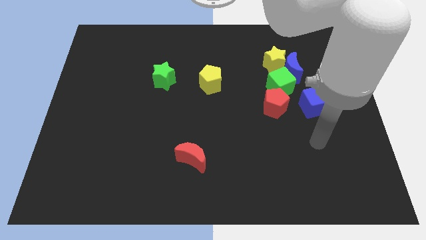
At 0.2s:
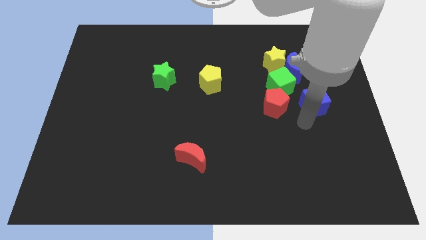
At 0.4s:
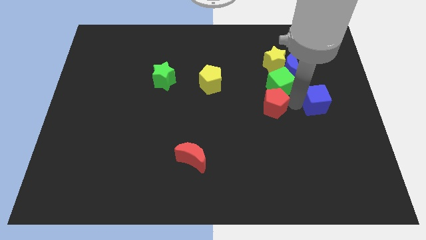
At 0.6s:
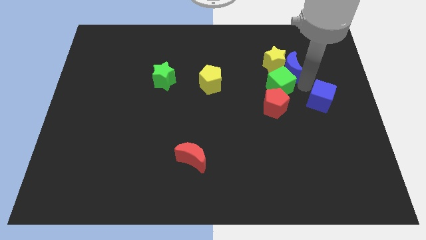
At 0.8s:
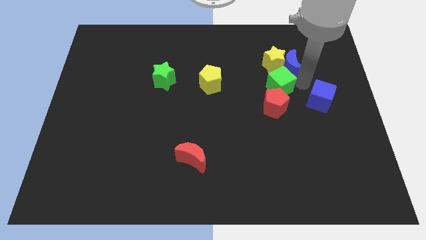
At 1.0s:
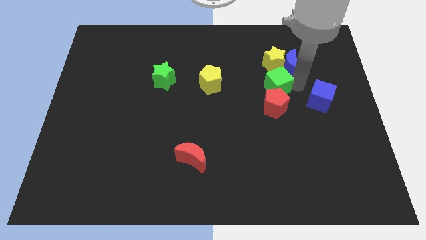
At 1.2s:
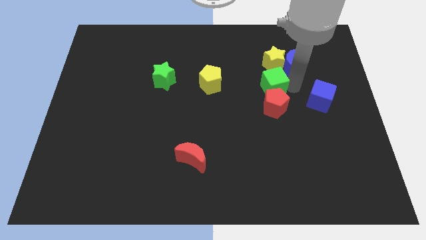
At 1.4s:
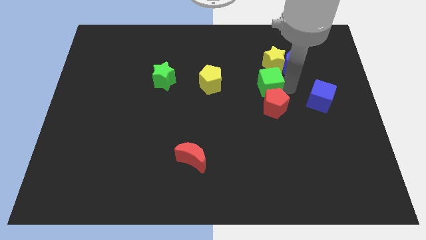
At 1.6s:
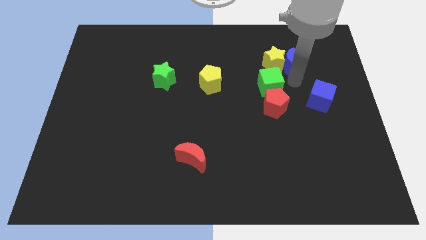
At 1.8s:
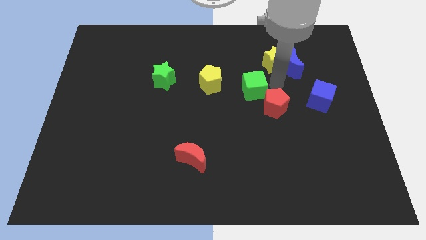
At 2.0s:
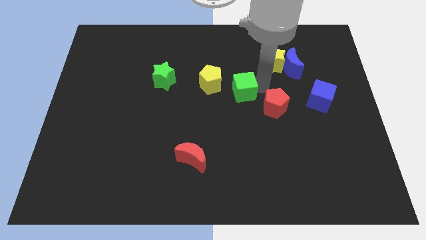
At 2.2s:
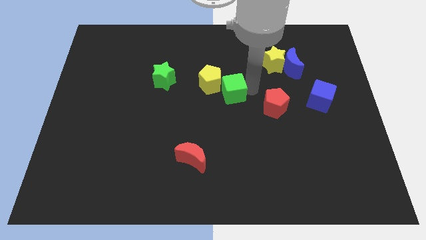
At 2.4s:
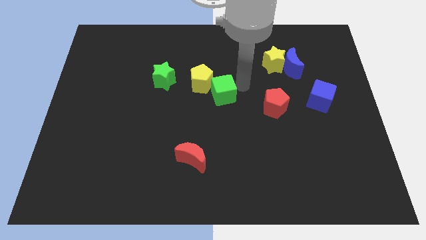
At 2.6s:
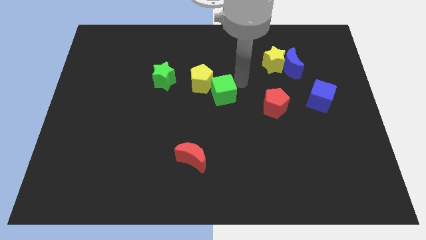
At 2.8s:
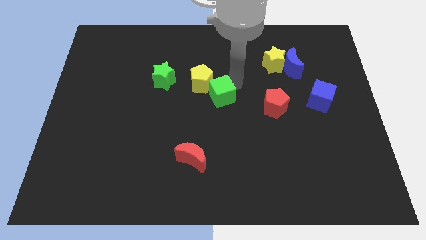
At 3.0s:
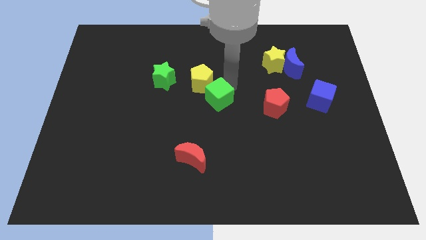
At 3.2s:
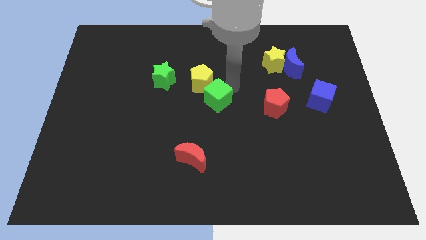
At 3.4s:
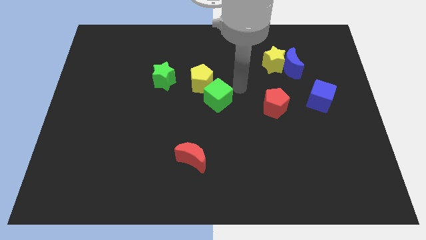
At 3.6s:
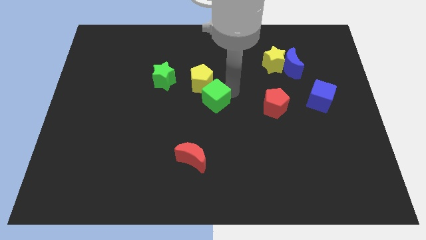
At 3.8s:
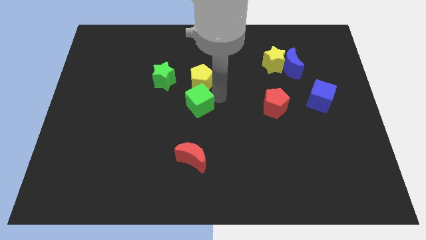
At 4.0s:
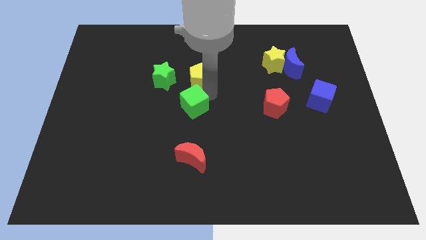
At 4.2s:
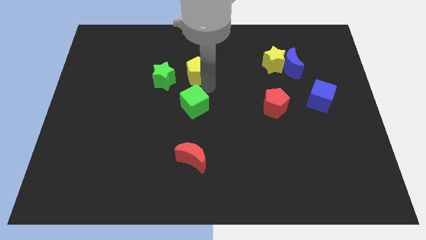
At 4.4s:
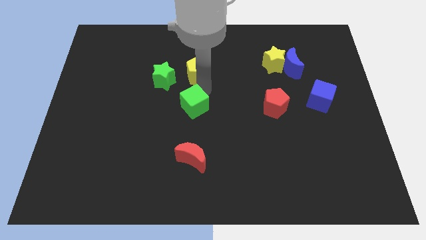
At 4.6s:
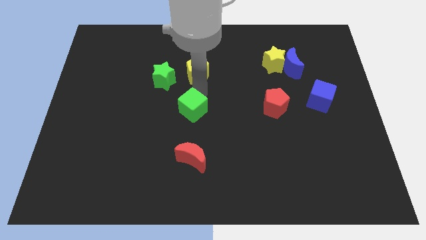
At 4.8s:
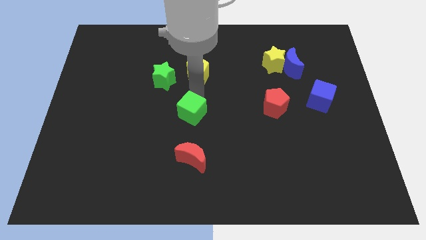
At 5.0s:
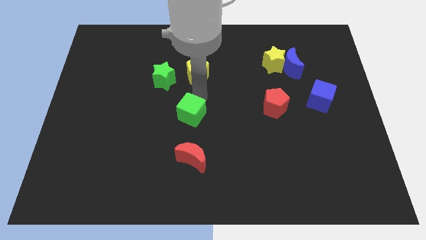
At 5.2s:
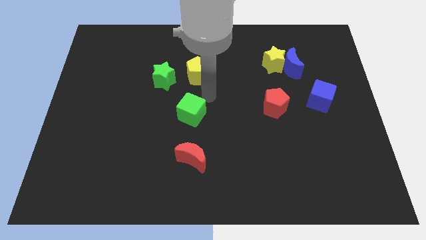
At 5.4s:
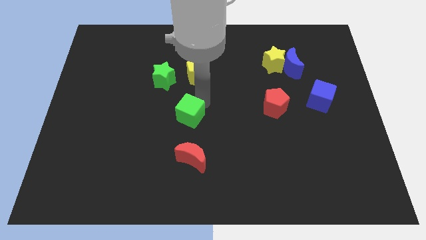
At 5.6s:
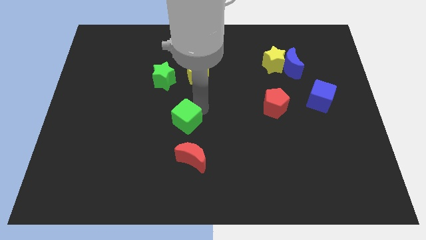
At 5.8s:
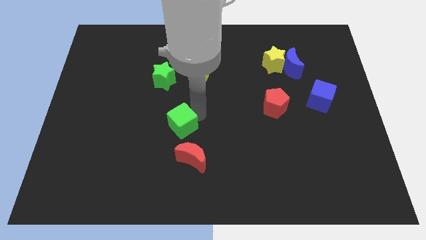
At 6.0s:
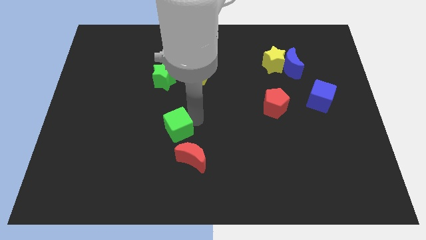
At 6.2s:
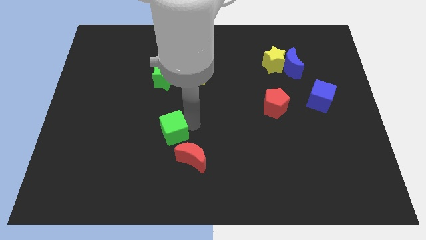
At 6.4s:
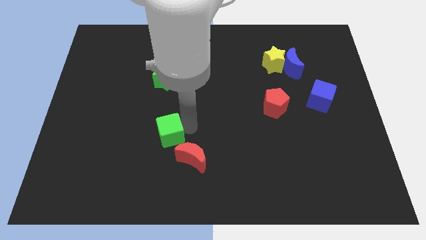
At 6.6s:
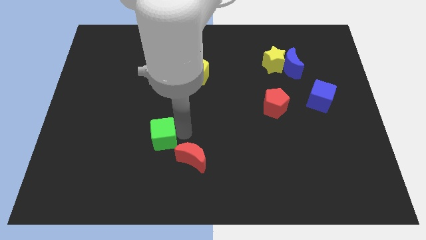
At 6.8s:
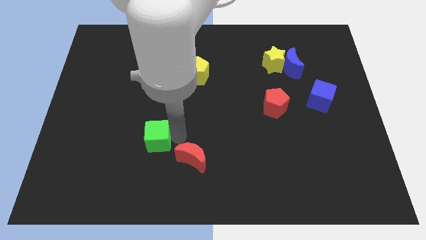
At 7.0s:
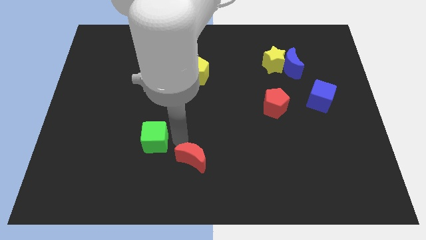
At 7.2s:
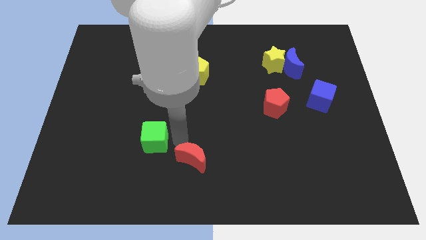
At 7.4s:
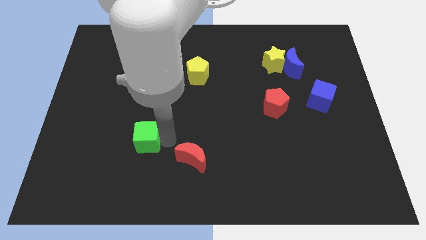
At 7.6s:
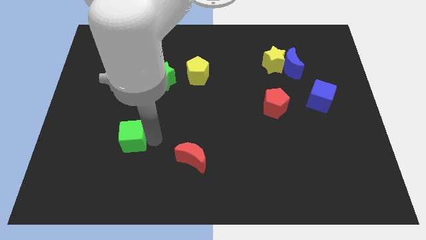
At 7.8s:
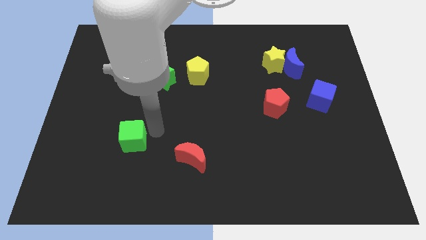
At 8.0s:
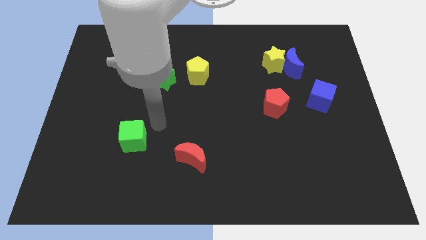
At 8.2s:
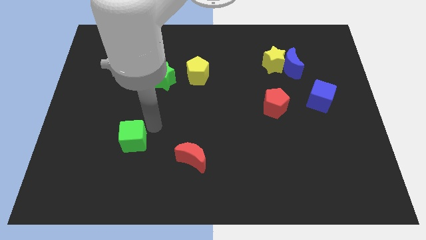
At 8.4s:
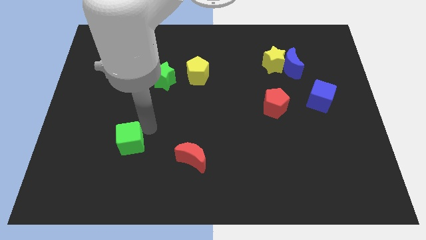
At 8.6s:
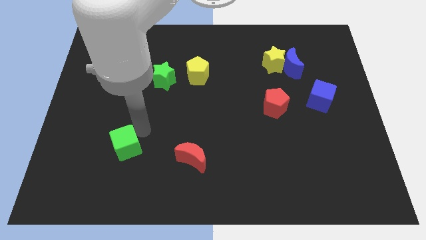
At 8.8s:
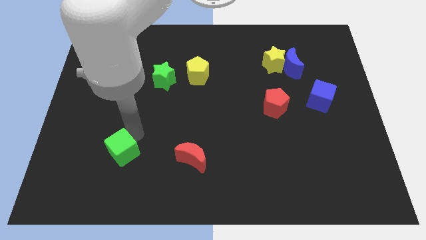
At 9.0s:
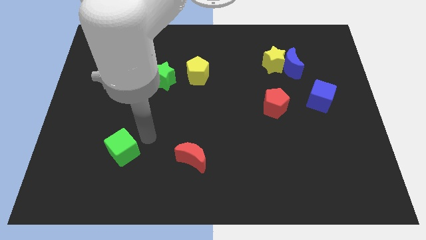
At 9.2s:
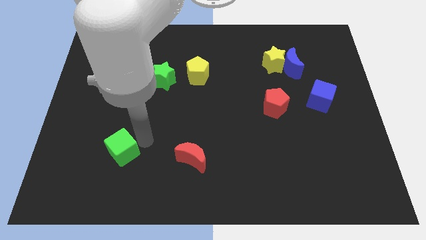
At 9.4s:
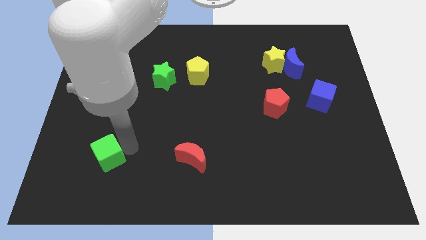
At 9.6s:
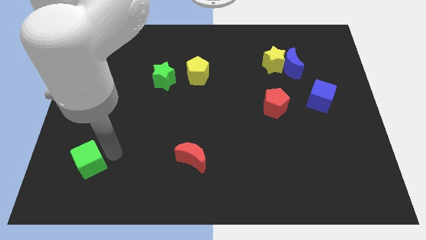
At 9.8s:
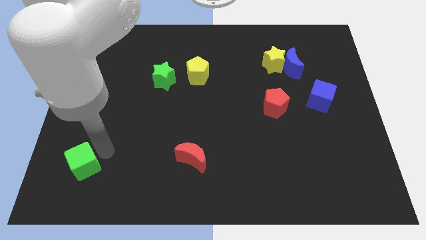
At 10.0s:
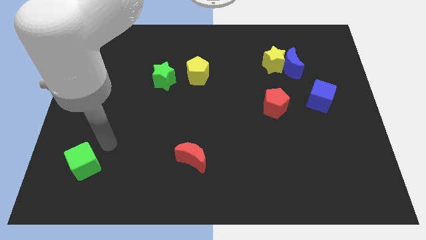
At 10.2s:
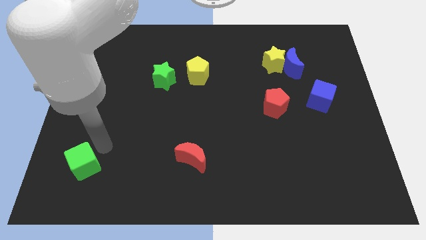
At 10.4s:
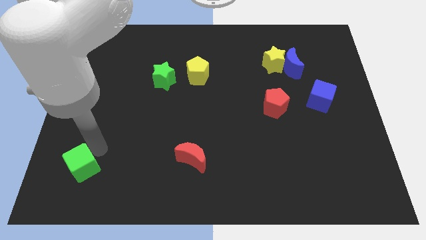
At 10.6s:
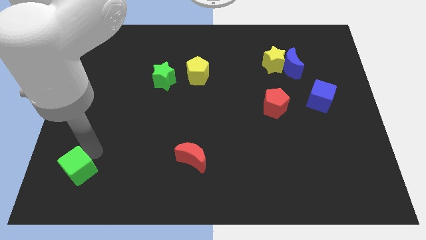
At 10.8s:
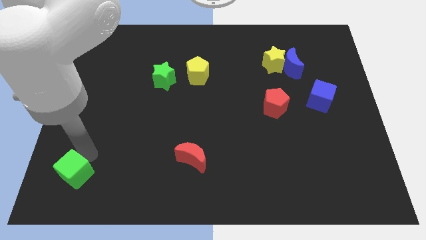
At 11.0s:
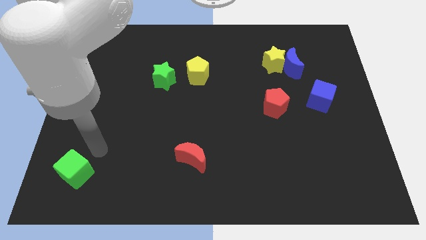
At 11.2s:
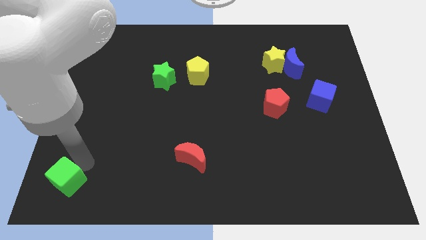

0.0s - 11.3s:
put the green cube to the bottom left of the board

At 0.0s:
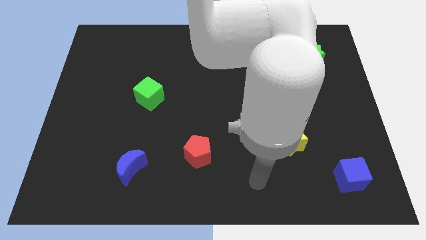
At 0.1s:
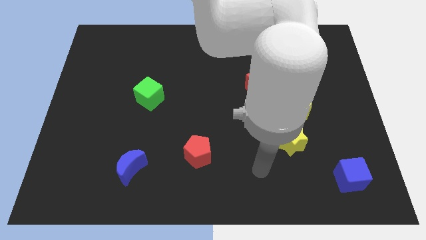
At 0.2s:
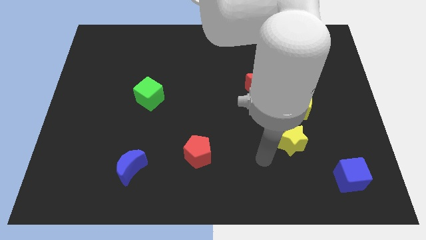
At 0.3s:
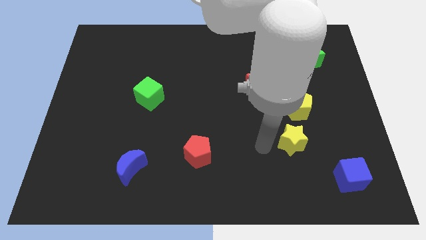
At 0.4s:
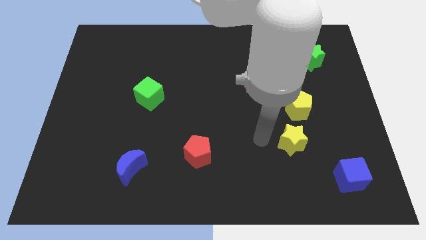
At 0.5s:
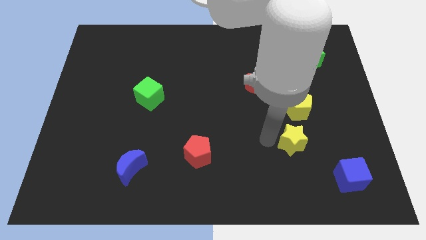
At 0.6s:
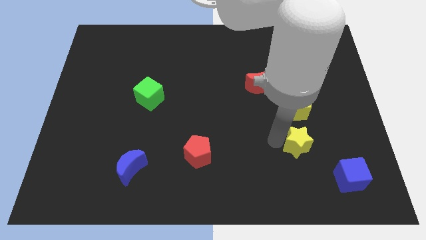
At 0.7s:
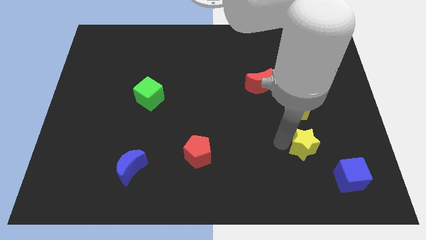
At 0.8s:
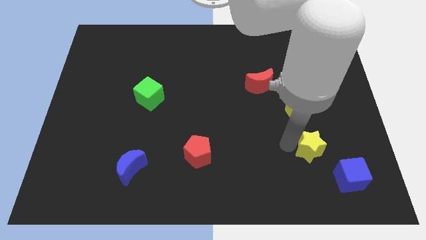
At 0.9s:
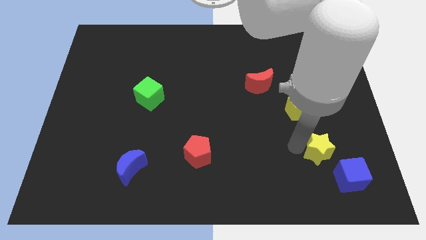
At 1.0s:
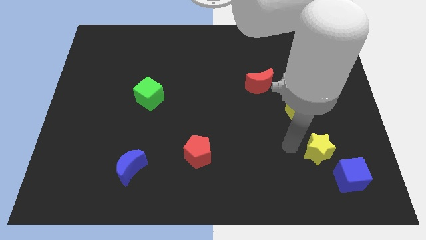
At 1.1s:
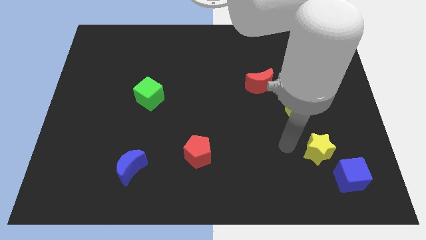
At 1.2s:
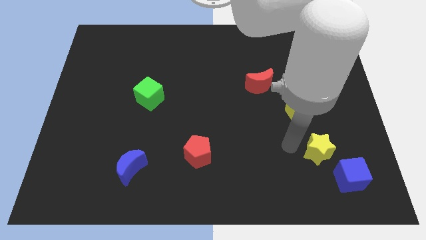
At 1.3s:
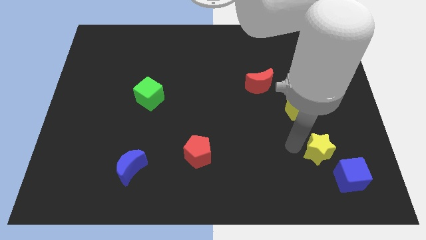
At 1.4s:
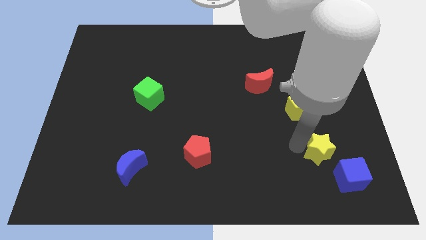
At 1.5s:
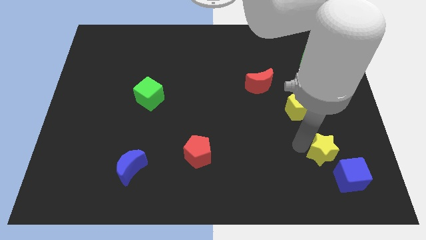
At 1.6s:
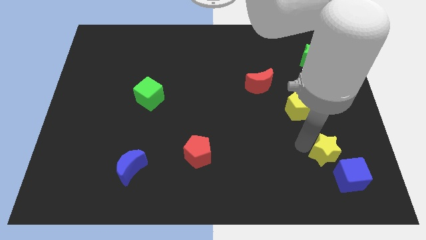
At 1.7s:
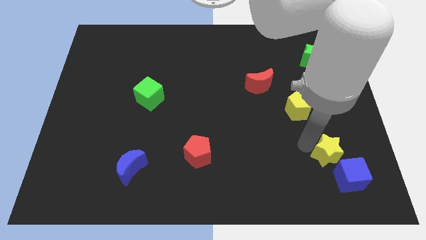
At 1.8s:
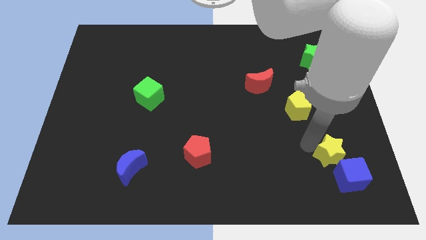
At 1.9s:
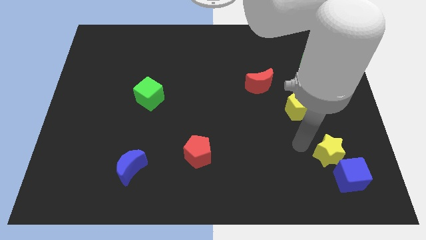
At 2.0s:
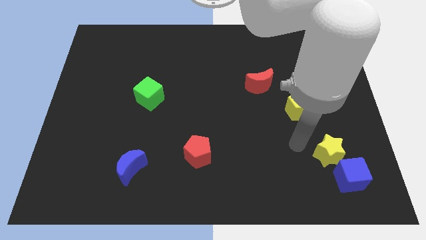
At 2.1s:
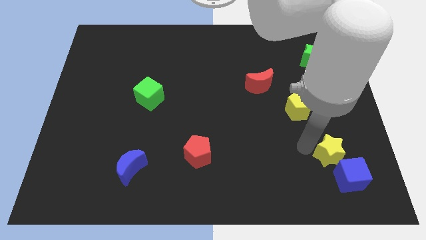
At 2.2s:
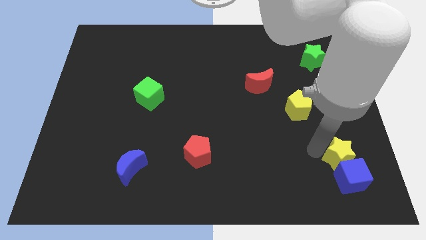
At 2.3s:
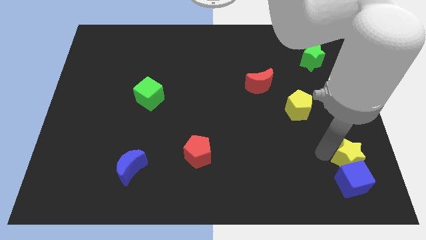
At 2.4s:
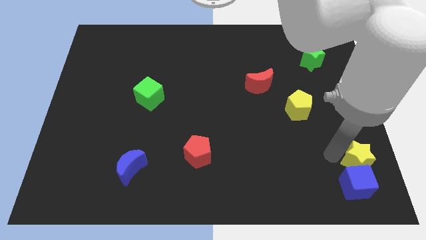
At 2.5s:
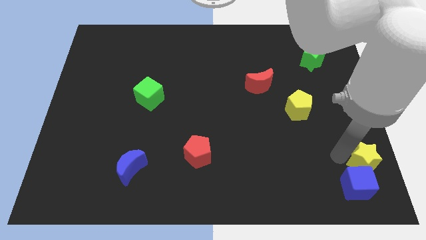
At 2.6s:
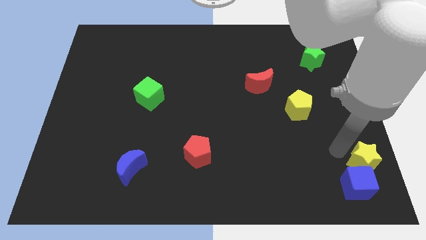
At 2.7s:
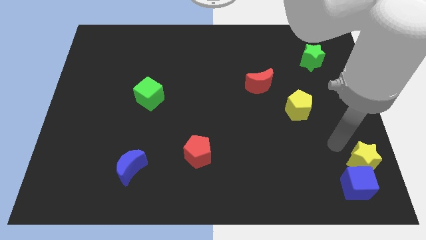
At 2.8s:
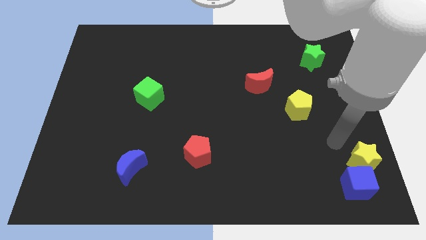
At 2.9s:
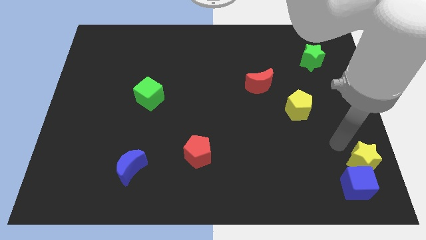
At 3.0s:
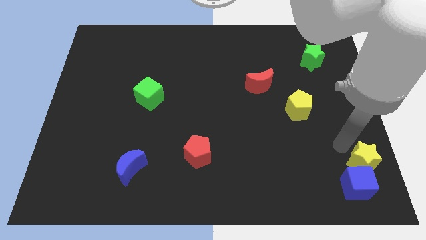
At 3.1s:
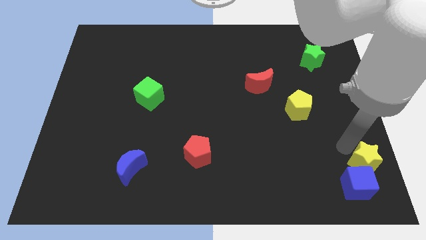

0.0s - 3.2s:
put the yellow star to the bottom right
